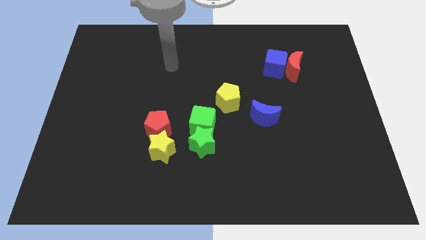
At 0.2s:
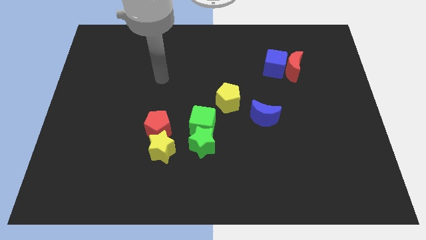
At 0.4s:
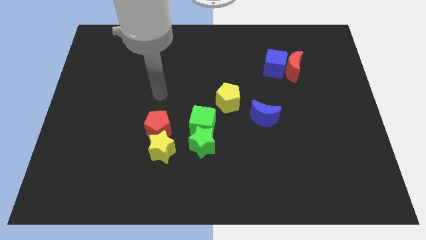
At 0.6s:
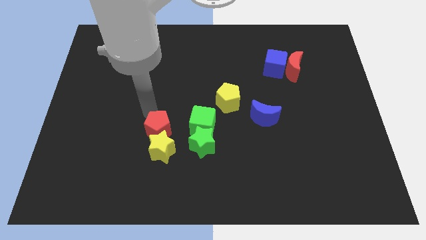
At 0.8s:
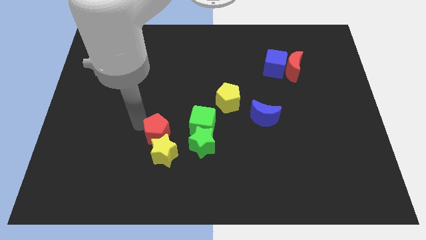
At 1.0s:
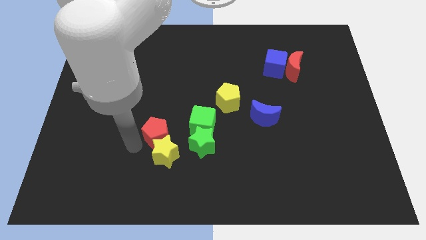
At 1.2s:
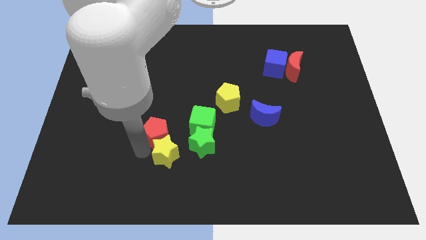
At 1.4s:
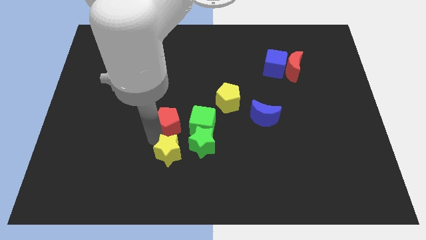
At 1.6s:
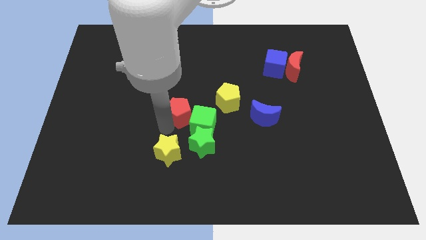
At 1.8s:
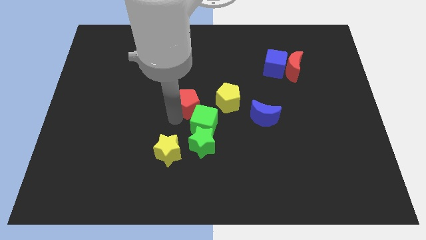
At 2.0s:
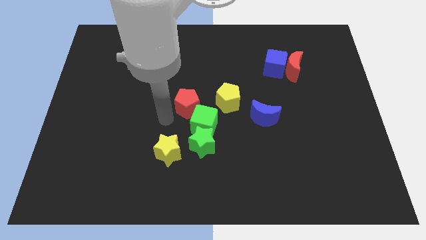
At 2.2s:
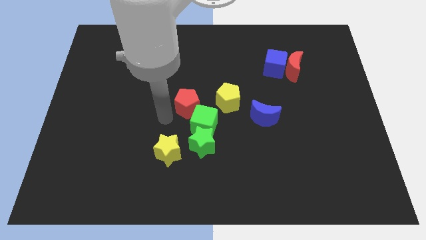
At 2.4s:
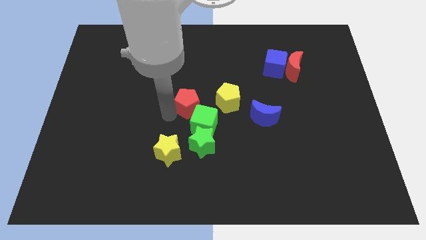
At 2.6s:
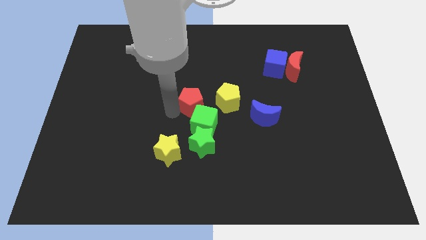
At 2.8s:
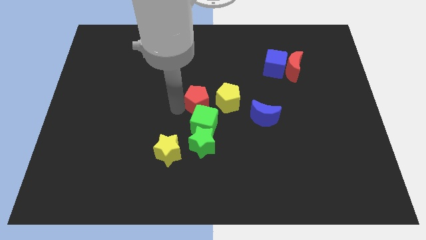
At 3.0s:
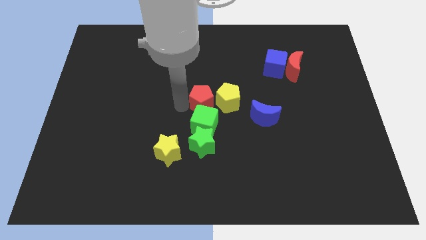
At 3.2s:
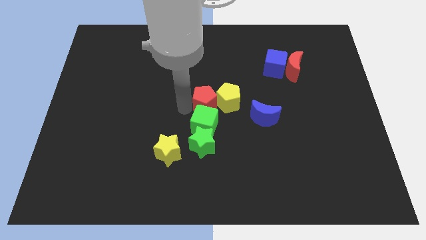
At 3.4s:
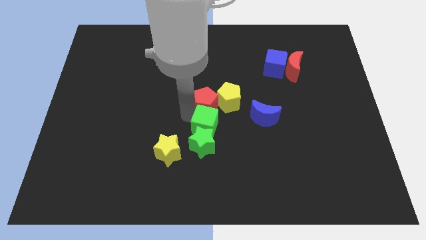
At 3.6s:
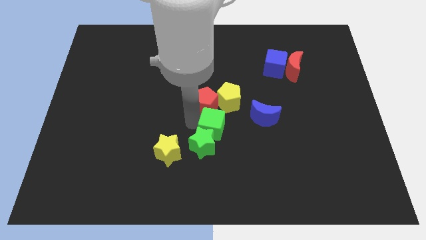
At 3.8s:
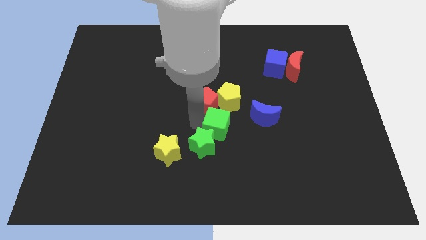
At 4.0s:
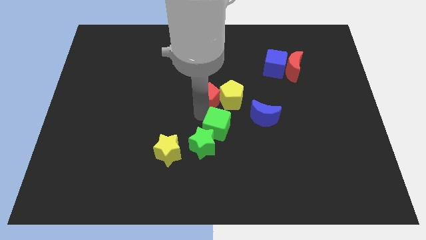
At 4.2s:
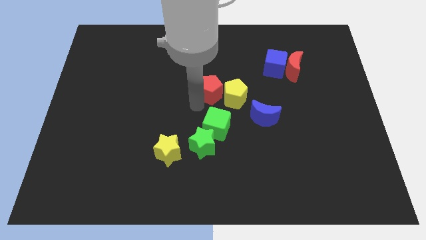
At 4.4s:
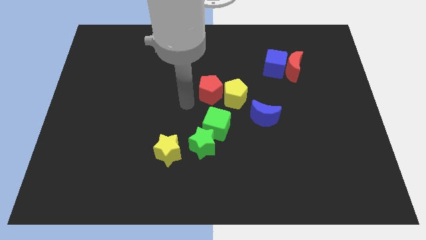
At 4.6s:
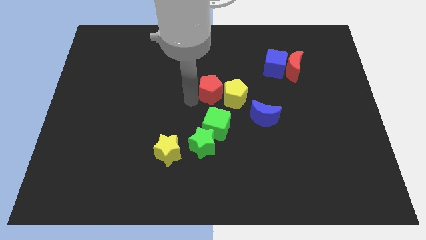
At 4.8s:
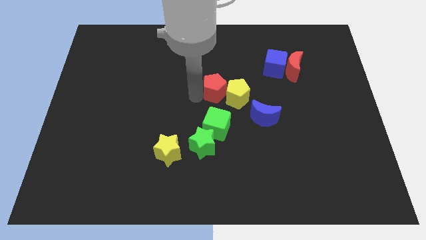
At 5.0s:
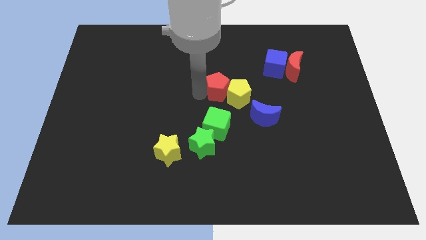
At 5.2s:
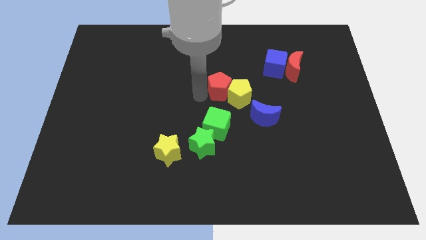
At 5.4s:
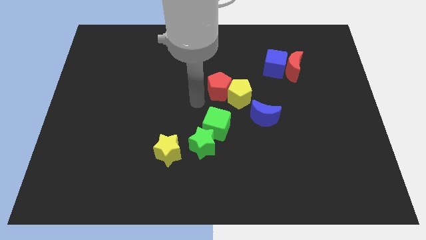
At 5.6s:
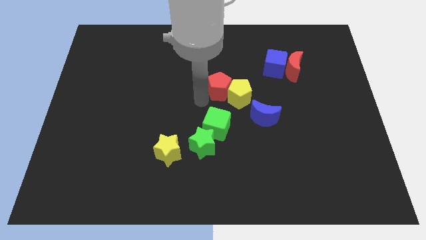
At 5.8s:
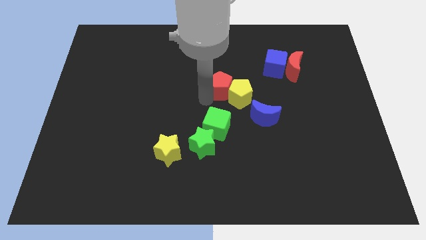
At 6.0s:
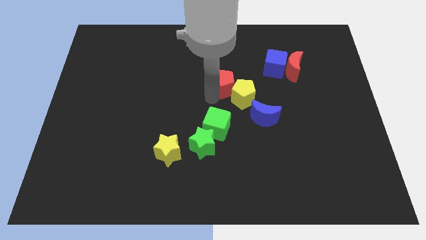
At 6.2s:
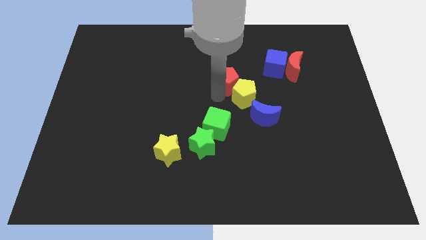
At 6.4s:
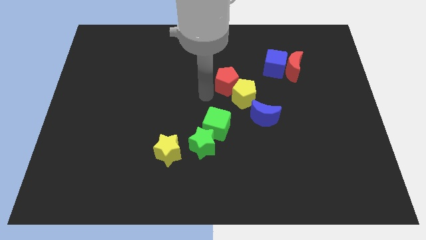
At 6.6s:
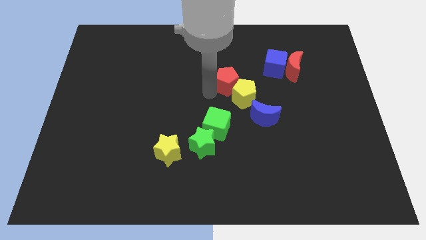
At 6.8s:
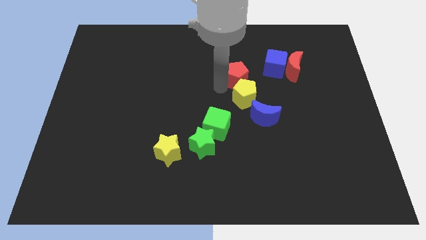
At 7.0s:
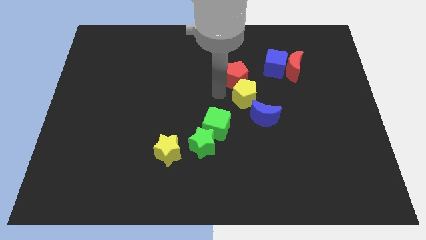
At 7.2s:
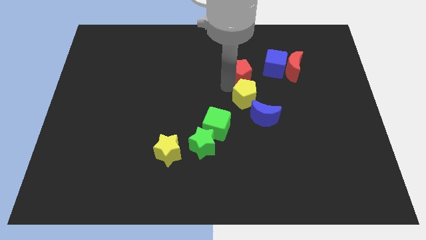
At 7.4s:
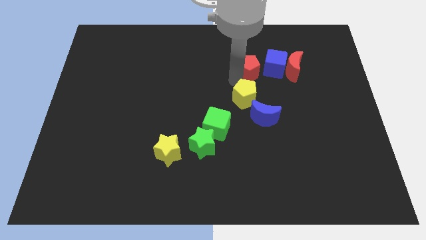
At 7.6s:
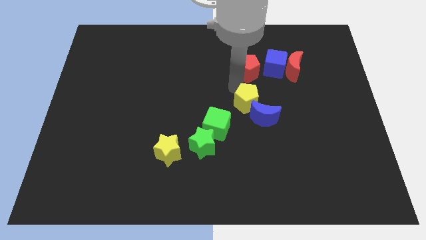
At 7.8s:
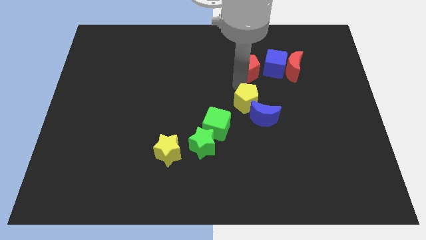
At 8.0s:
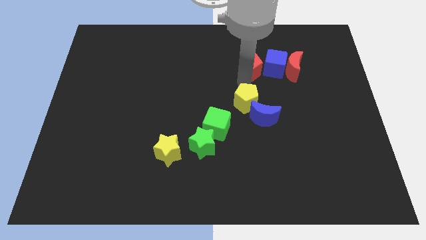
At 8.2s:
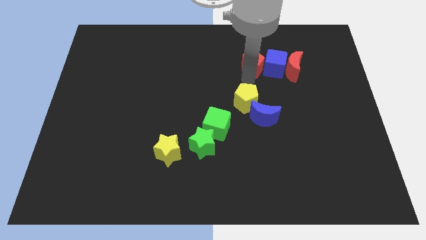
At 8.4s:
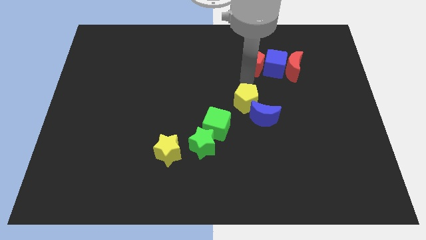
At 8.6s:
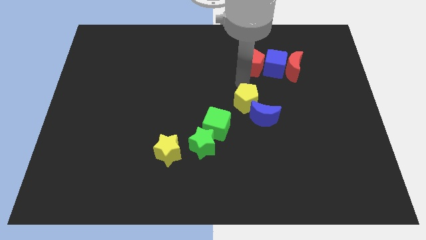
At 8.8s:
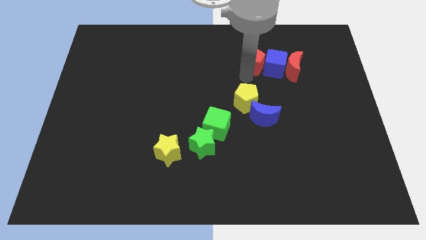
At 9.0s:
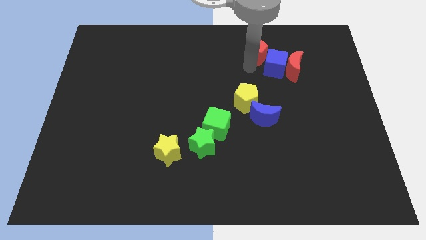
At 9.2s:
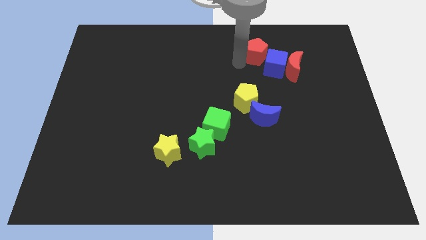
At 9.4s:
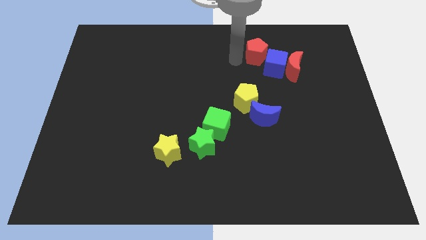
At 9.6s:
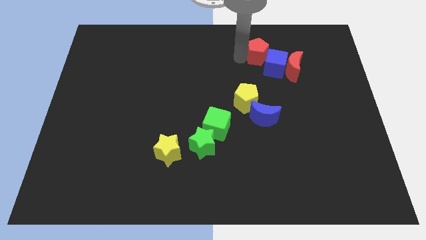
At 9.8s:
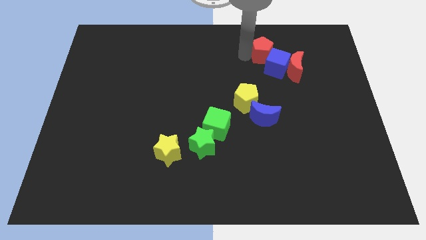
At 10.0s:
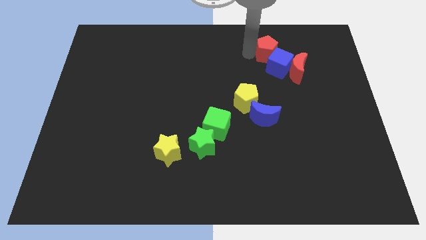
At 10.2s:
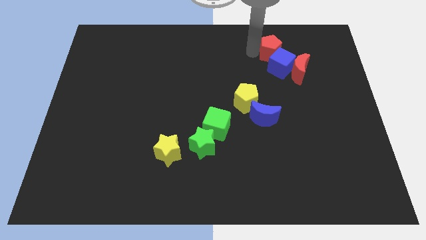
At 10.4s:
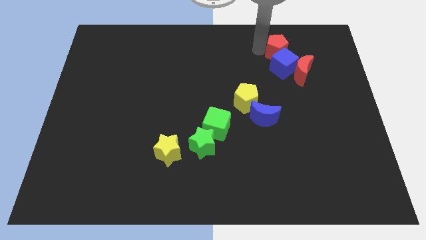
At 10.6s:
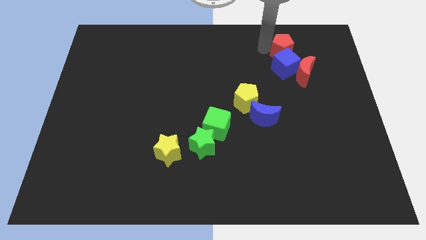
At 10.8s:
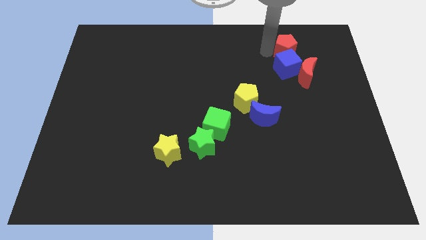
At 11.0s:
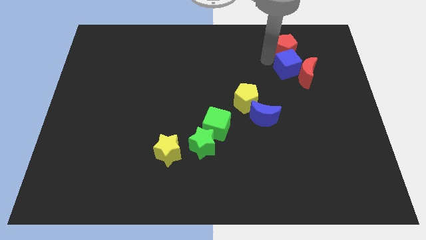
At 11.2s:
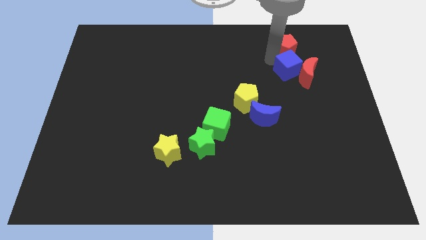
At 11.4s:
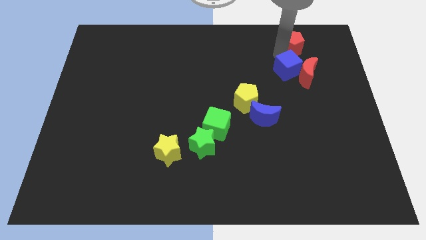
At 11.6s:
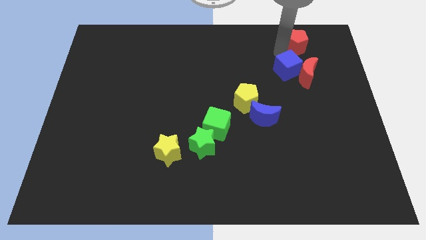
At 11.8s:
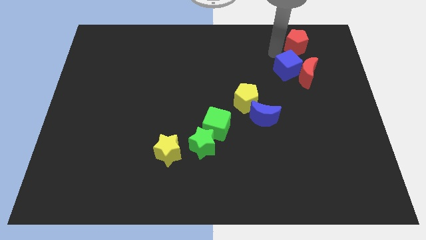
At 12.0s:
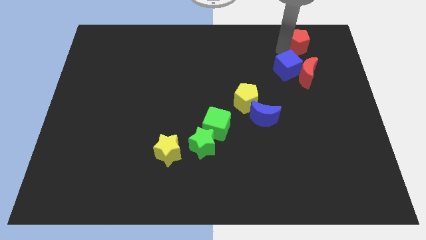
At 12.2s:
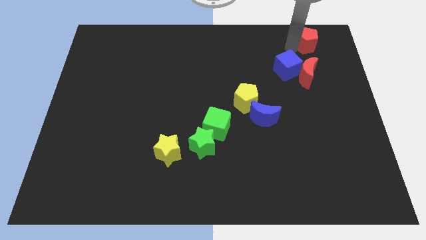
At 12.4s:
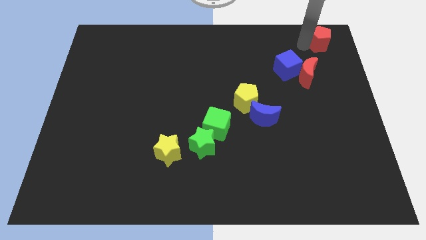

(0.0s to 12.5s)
move the red pentagon to the top right corner

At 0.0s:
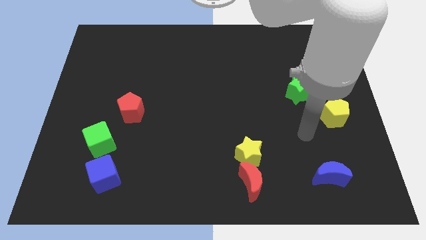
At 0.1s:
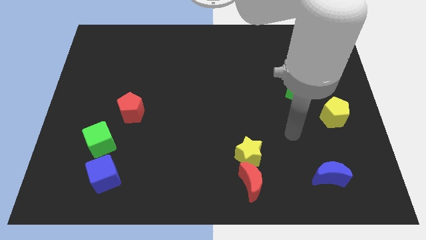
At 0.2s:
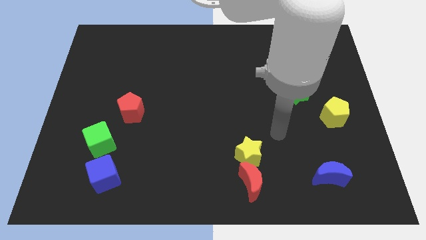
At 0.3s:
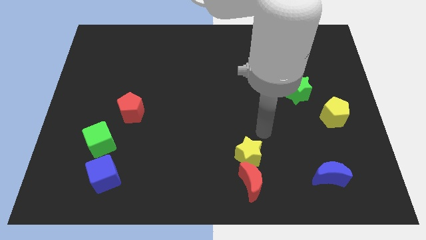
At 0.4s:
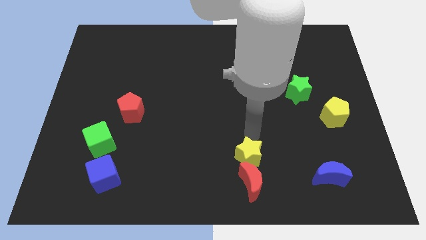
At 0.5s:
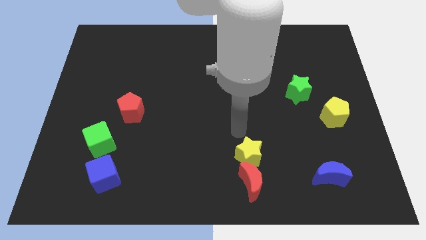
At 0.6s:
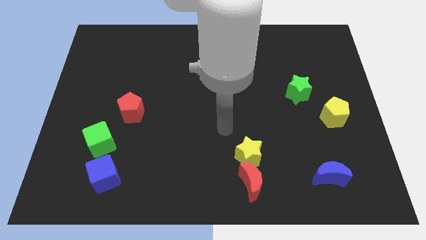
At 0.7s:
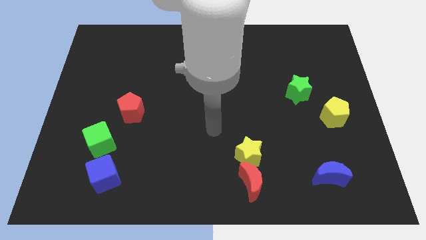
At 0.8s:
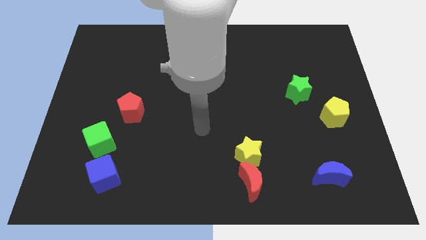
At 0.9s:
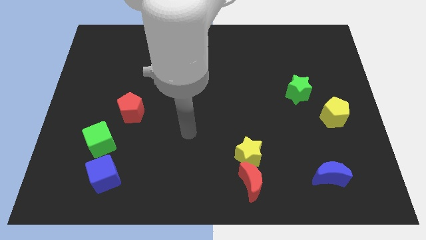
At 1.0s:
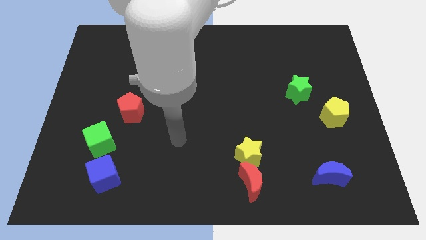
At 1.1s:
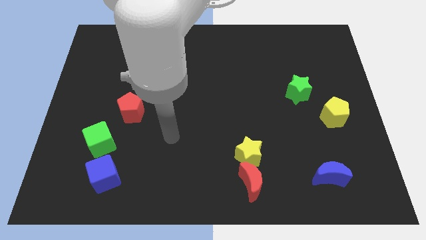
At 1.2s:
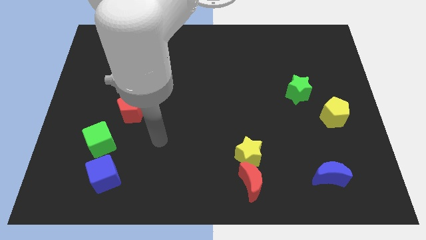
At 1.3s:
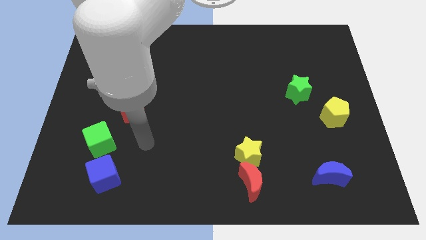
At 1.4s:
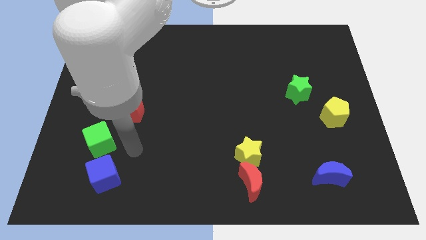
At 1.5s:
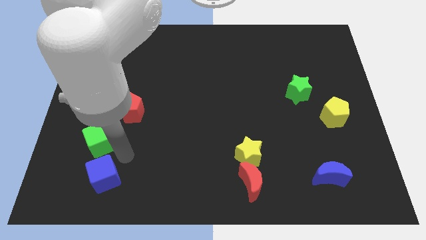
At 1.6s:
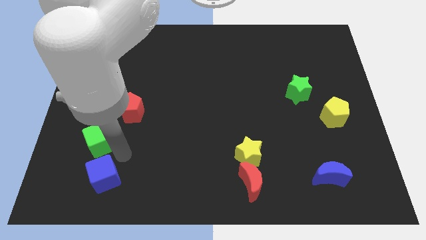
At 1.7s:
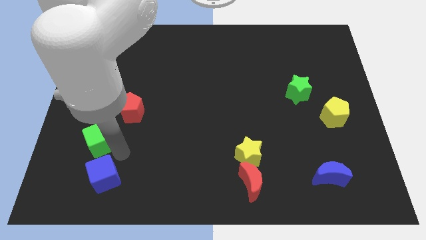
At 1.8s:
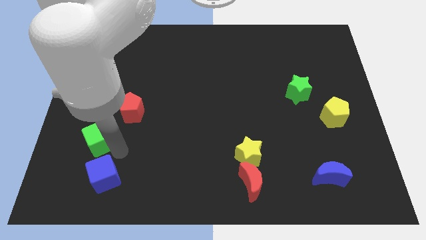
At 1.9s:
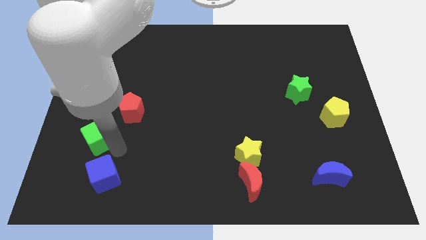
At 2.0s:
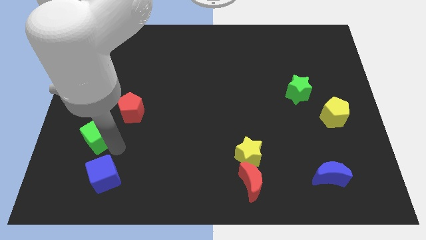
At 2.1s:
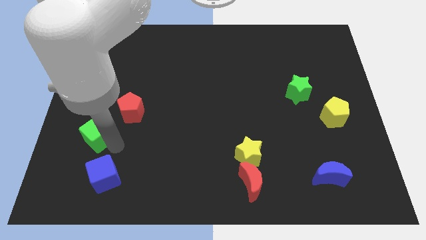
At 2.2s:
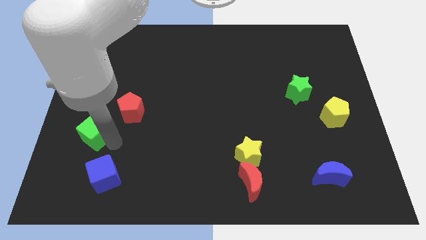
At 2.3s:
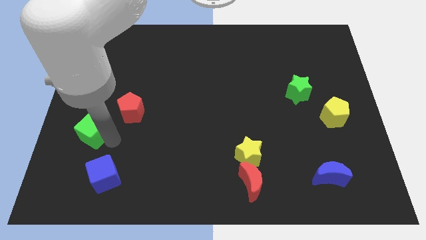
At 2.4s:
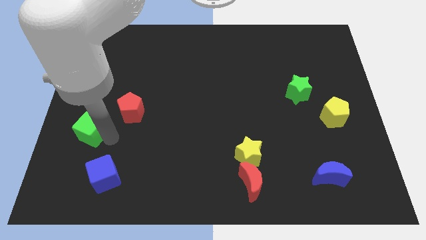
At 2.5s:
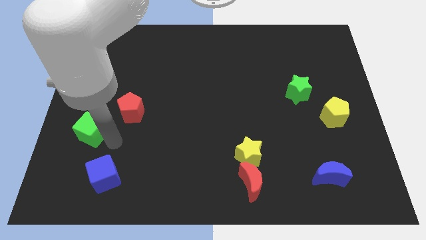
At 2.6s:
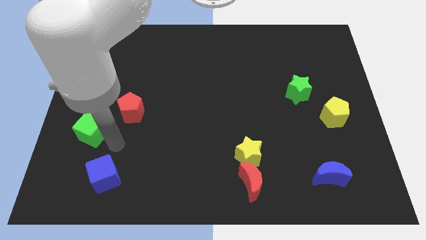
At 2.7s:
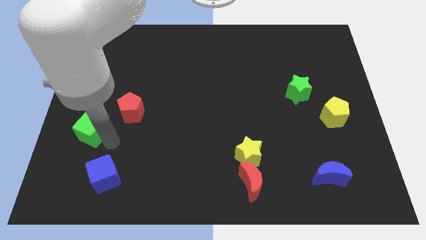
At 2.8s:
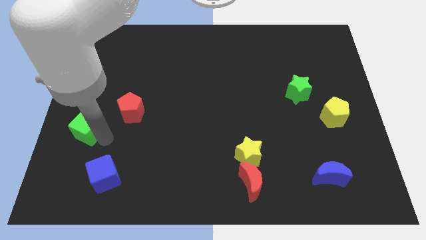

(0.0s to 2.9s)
put the green cube to the left side
